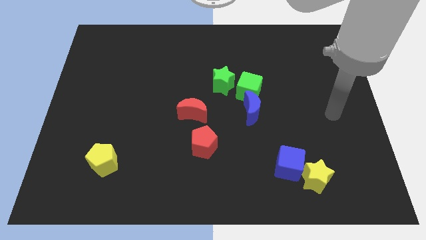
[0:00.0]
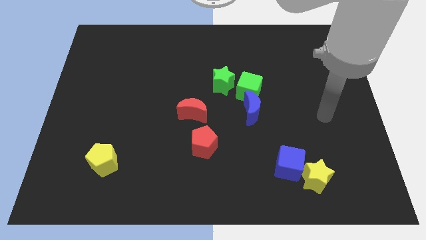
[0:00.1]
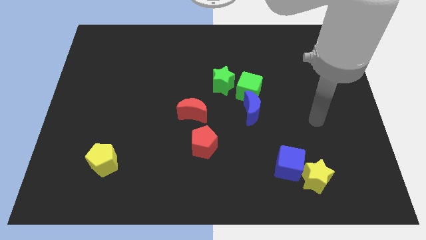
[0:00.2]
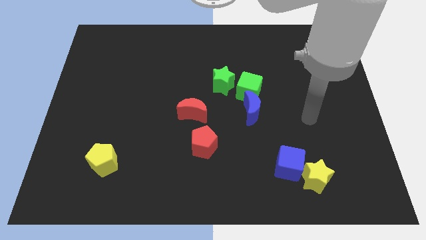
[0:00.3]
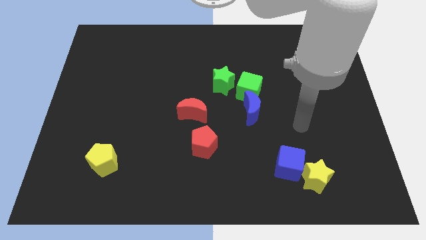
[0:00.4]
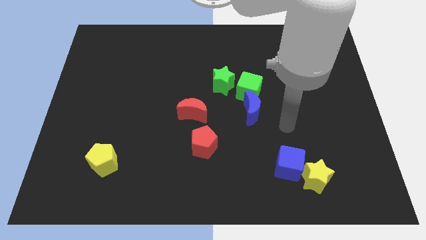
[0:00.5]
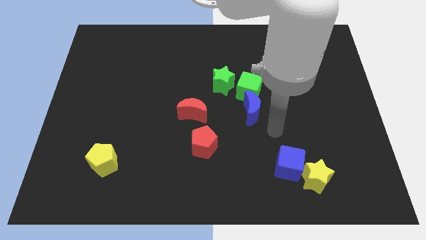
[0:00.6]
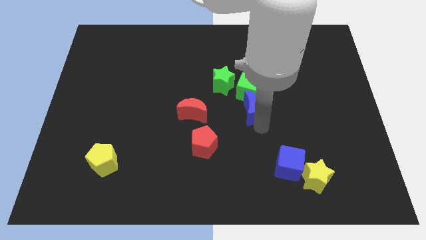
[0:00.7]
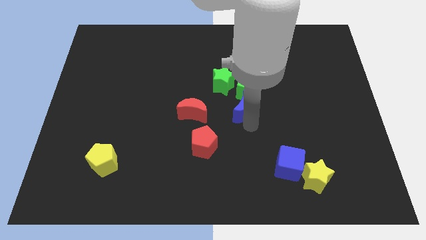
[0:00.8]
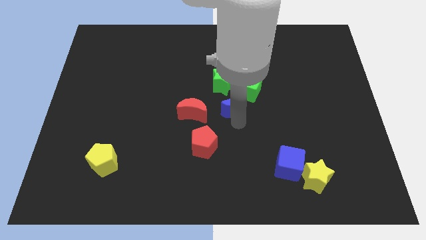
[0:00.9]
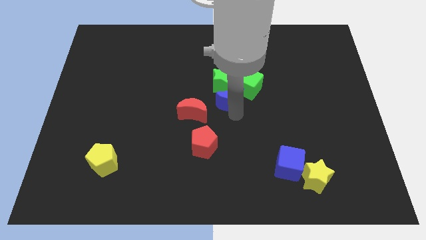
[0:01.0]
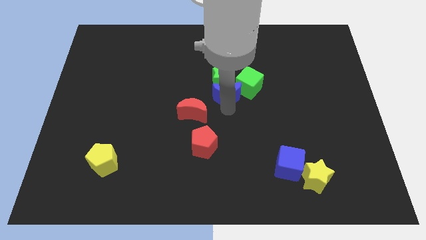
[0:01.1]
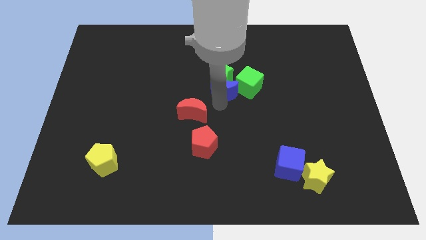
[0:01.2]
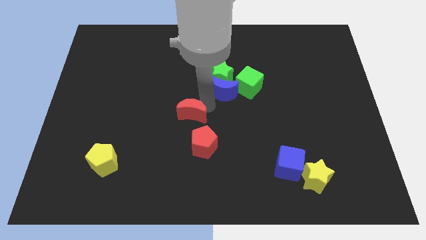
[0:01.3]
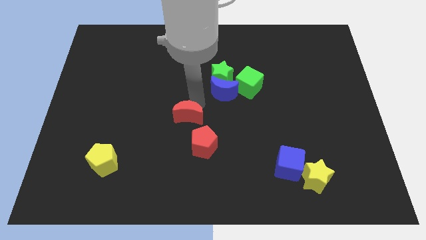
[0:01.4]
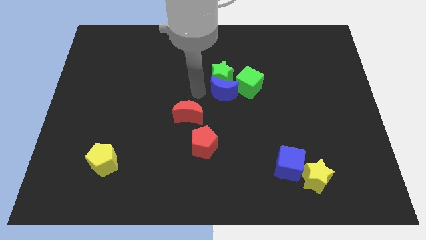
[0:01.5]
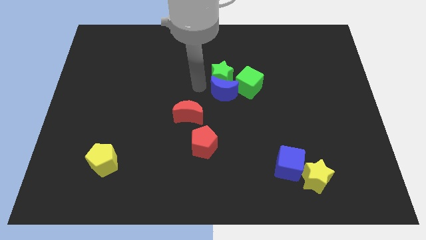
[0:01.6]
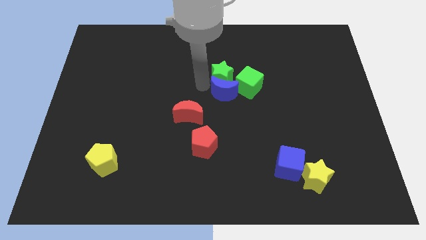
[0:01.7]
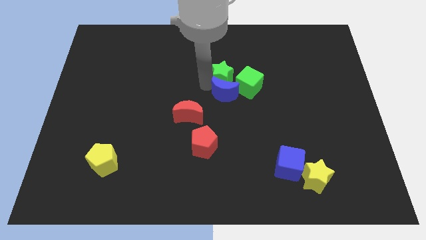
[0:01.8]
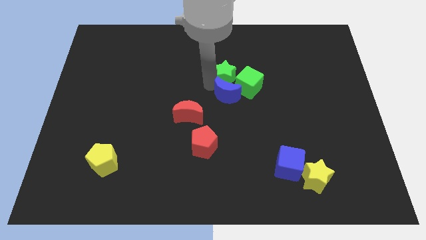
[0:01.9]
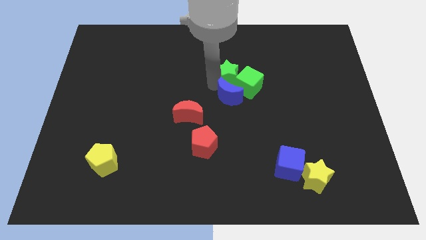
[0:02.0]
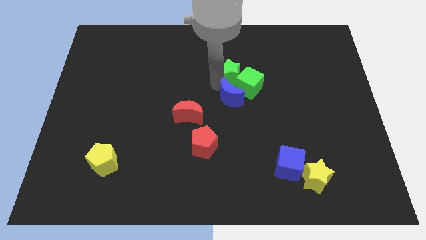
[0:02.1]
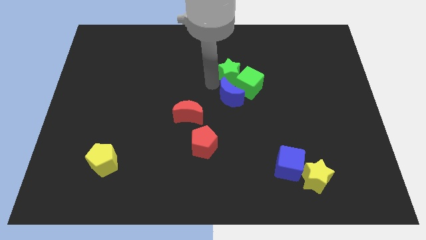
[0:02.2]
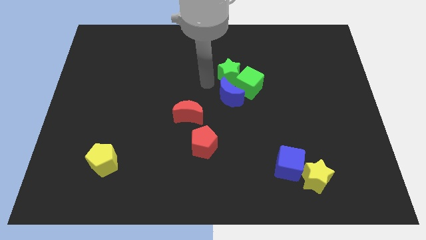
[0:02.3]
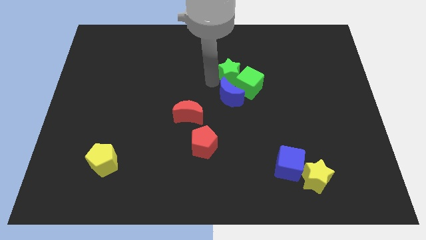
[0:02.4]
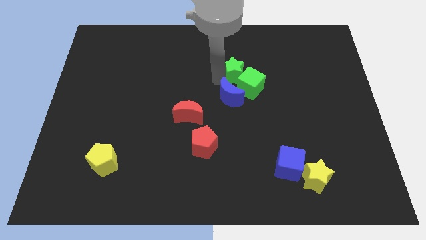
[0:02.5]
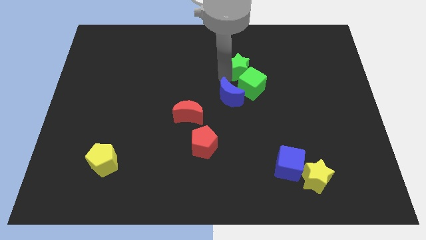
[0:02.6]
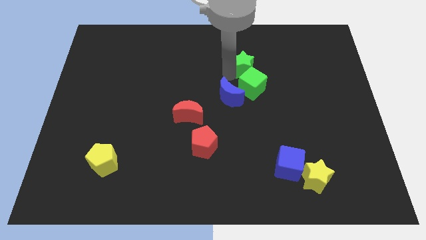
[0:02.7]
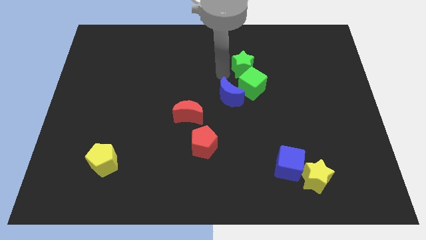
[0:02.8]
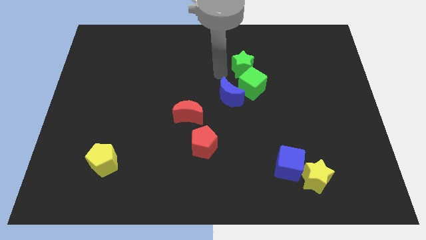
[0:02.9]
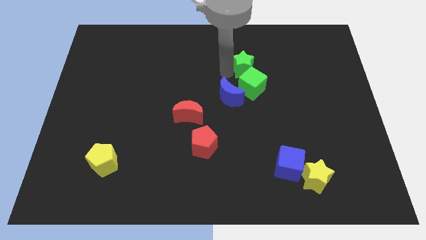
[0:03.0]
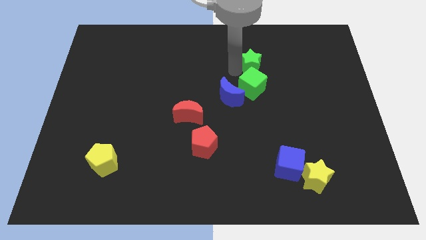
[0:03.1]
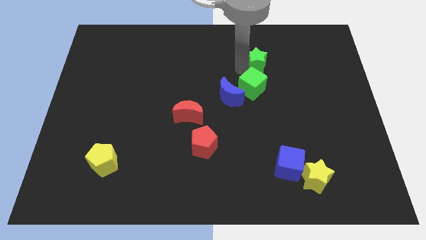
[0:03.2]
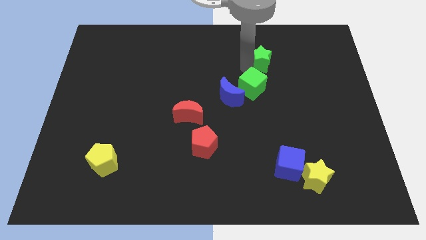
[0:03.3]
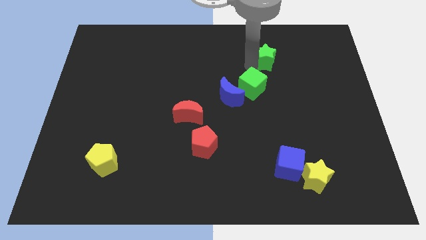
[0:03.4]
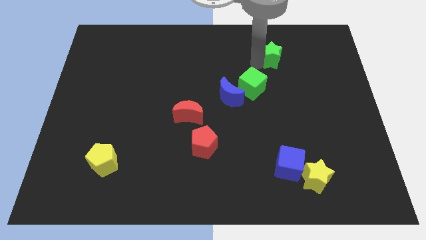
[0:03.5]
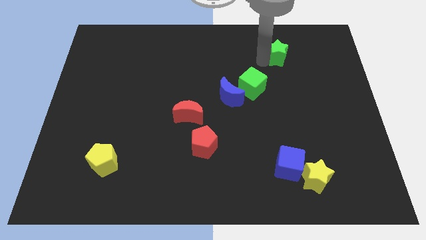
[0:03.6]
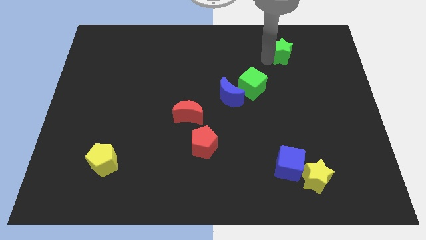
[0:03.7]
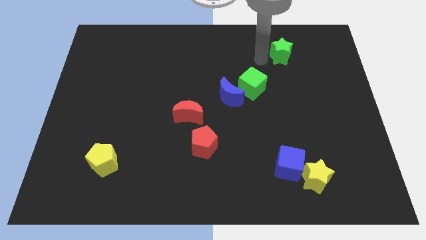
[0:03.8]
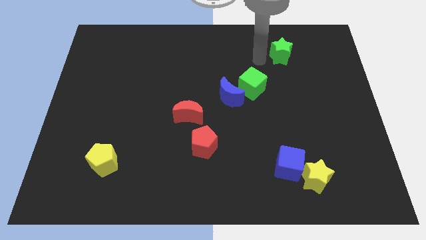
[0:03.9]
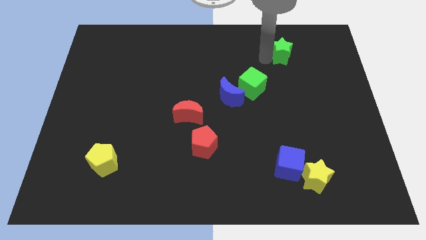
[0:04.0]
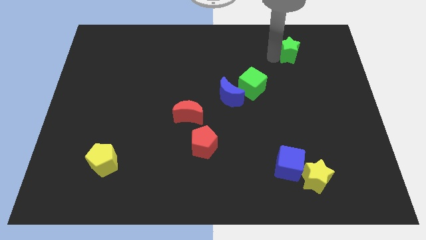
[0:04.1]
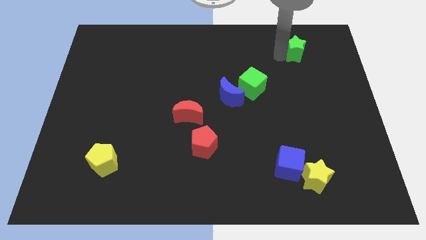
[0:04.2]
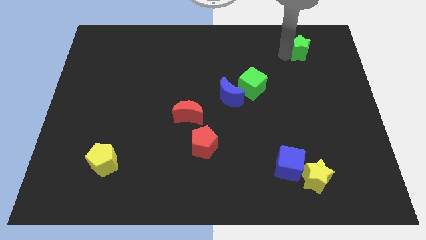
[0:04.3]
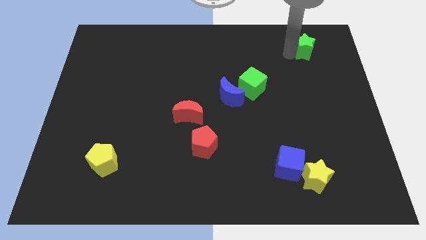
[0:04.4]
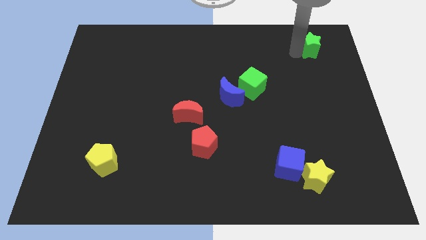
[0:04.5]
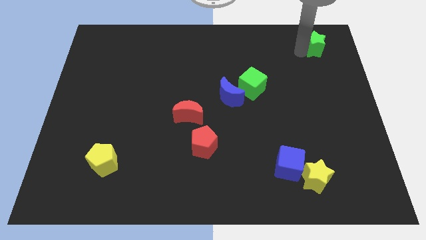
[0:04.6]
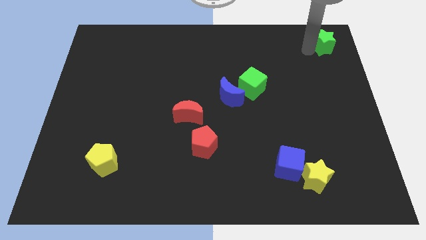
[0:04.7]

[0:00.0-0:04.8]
move the green star to the top right

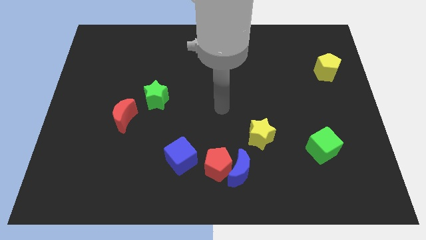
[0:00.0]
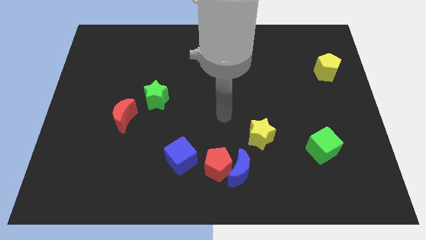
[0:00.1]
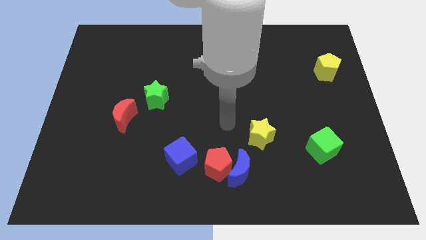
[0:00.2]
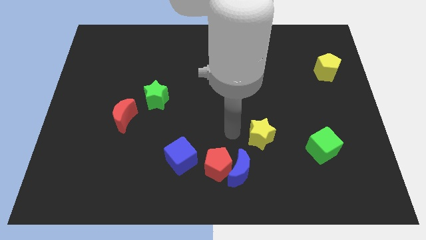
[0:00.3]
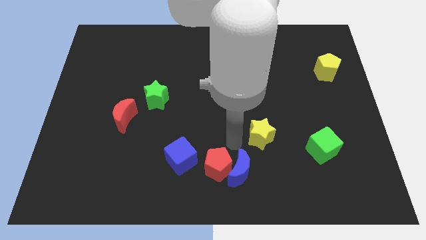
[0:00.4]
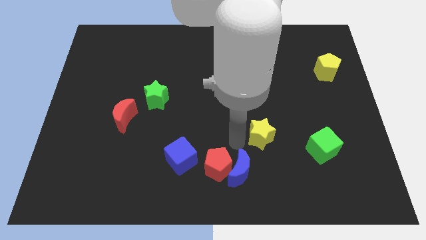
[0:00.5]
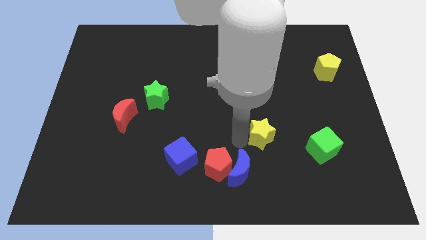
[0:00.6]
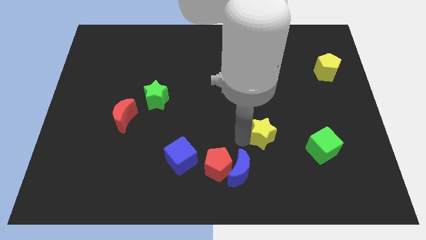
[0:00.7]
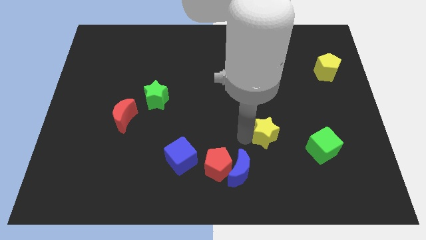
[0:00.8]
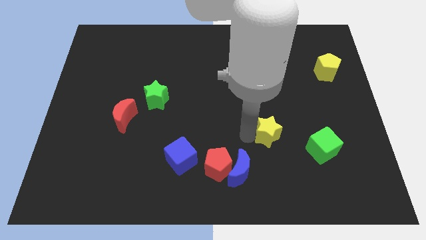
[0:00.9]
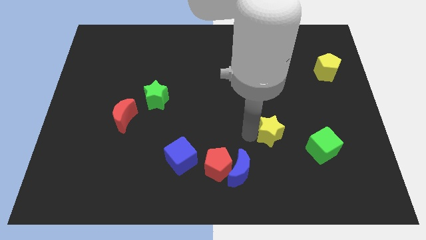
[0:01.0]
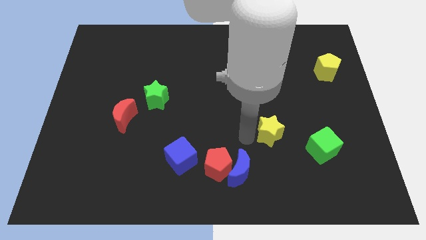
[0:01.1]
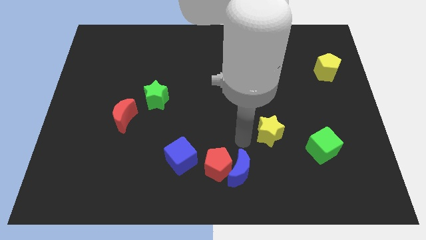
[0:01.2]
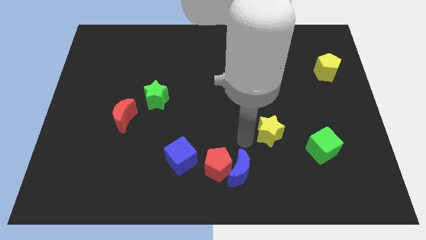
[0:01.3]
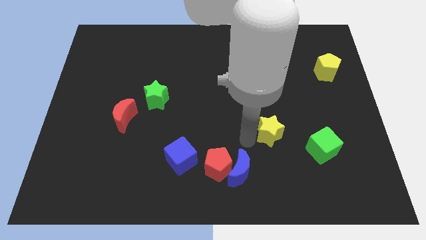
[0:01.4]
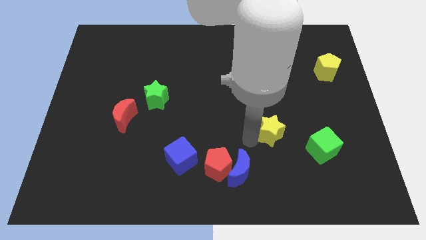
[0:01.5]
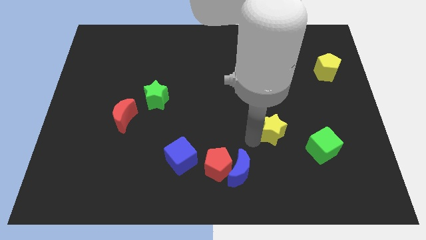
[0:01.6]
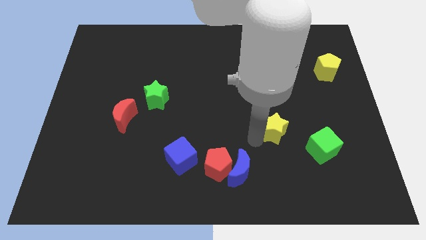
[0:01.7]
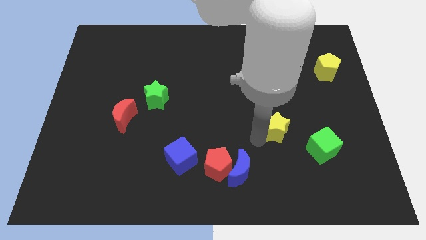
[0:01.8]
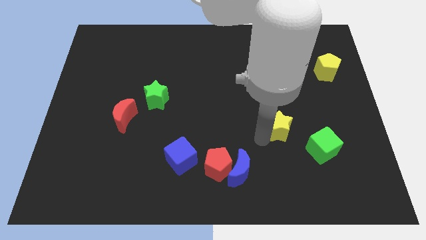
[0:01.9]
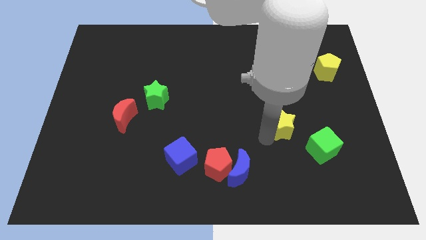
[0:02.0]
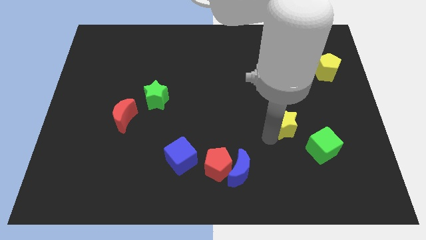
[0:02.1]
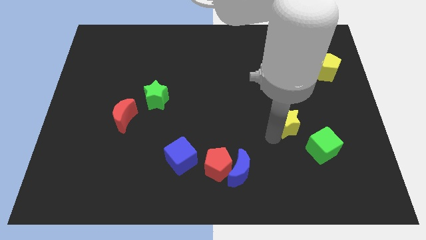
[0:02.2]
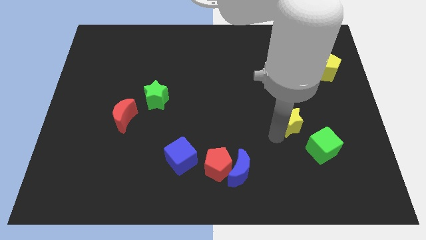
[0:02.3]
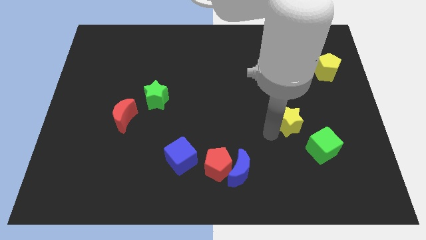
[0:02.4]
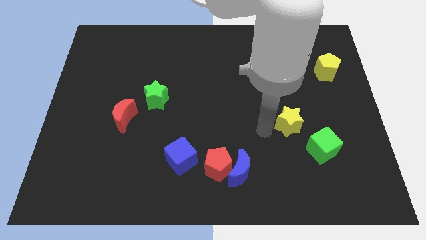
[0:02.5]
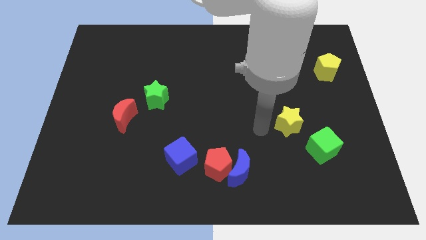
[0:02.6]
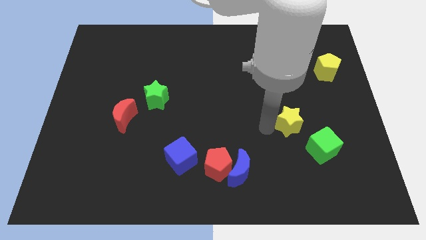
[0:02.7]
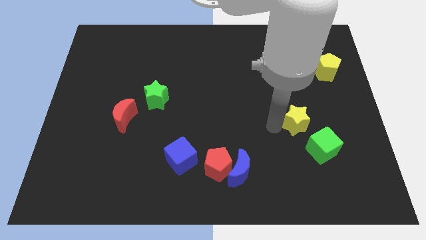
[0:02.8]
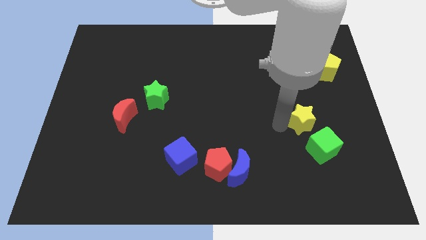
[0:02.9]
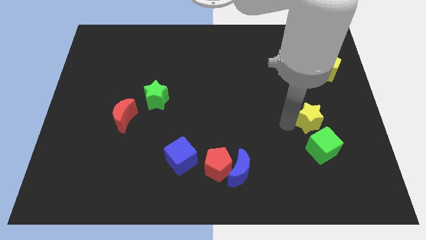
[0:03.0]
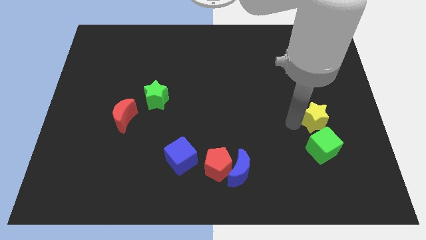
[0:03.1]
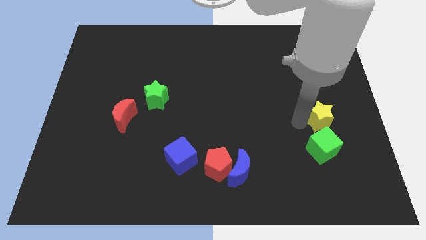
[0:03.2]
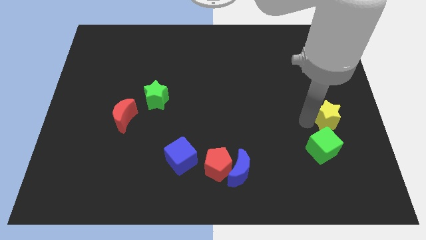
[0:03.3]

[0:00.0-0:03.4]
put the yellow star to the center right

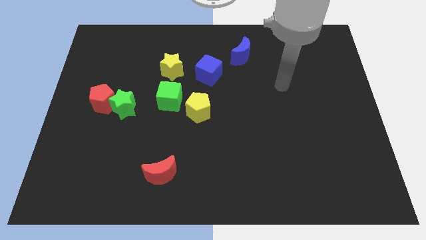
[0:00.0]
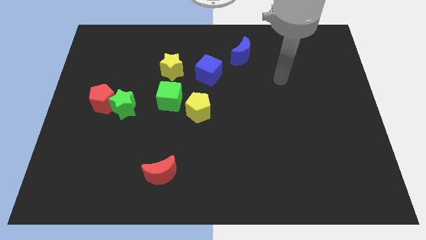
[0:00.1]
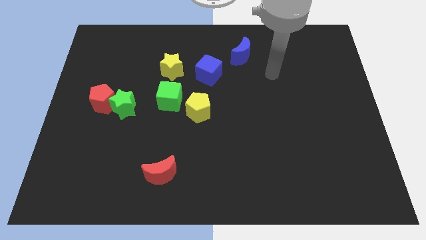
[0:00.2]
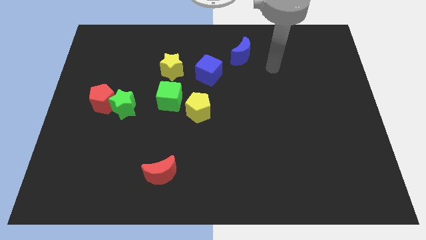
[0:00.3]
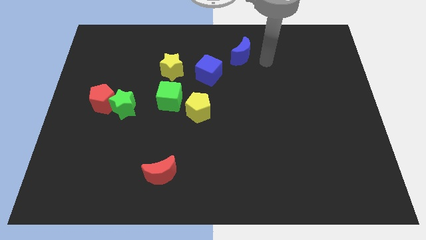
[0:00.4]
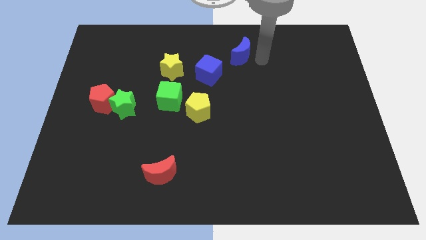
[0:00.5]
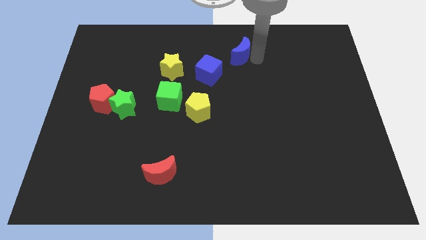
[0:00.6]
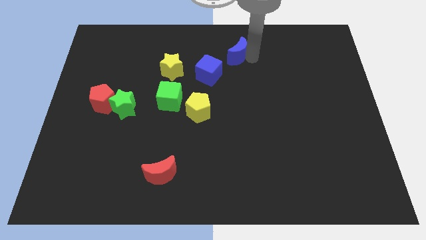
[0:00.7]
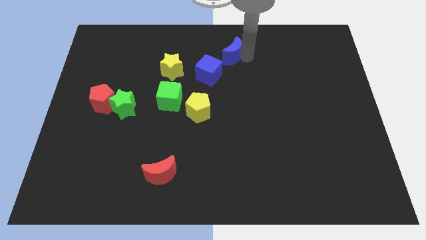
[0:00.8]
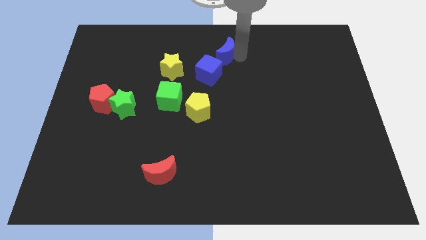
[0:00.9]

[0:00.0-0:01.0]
move the blue moon to the top side
